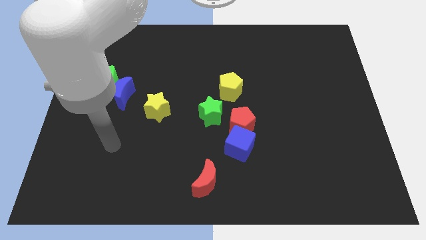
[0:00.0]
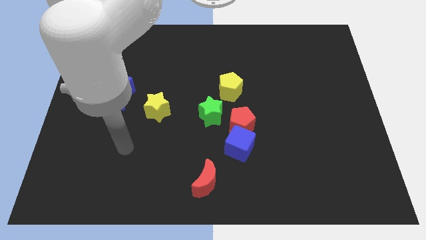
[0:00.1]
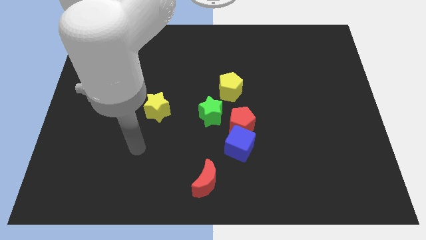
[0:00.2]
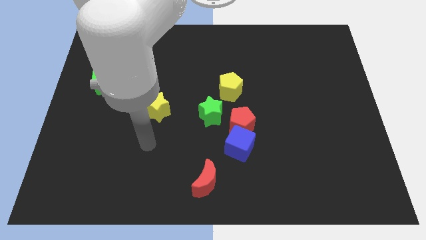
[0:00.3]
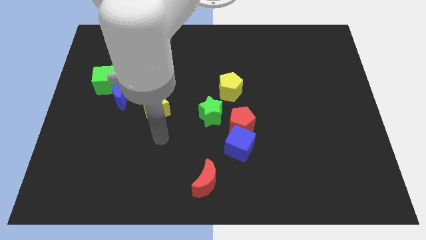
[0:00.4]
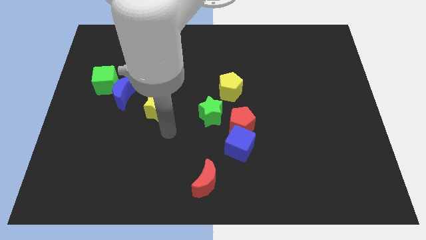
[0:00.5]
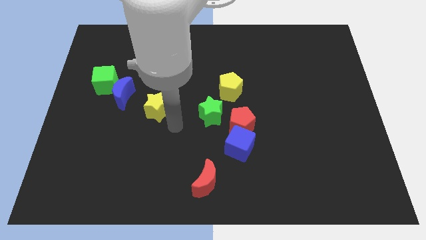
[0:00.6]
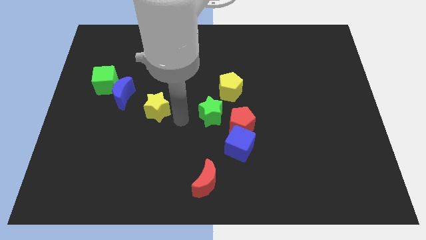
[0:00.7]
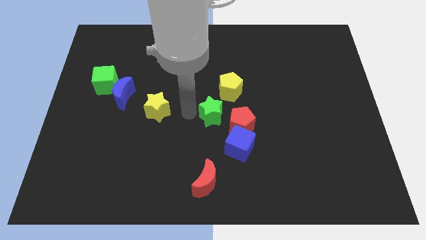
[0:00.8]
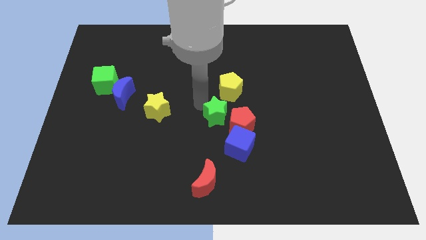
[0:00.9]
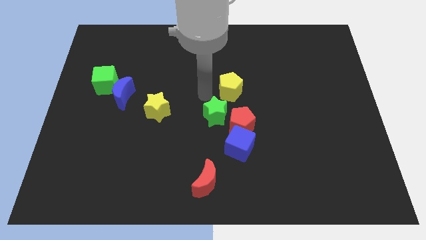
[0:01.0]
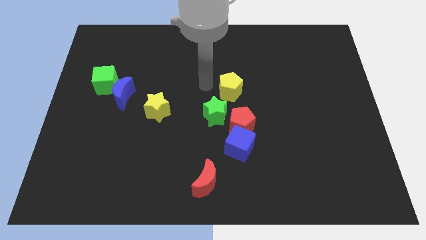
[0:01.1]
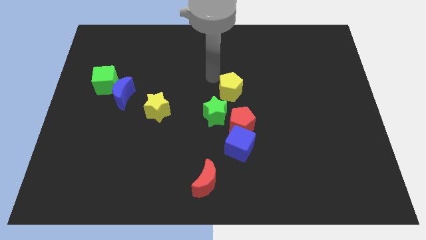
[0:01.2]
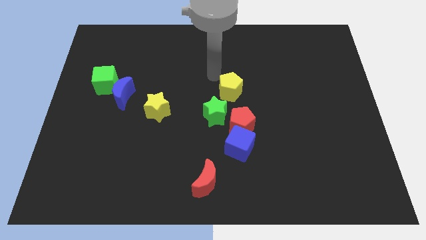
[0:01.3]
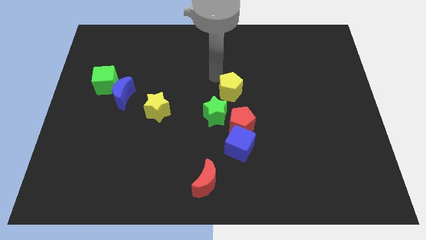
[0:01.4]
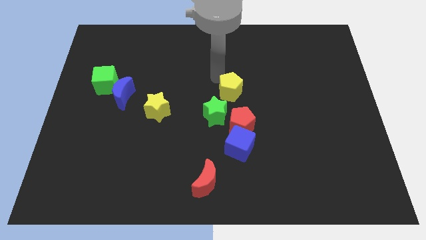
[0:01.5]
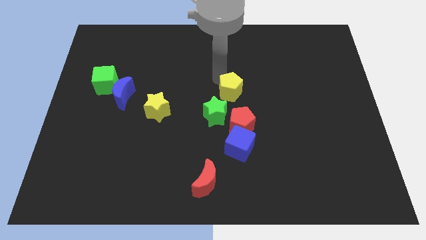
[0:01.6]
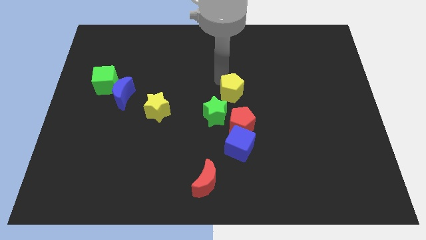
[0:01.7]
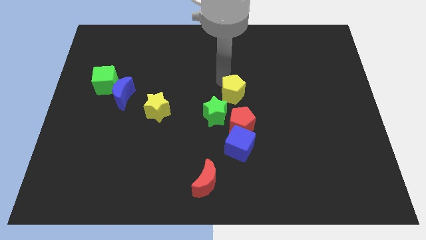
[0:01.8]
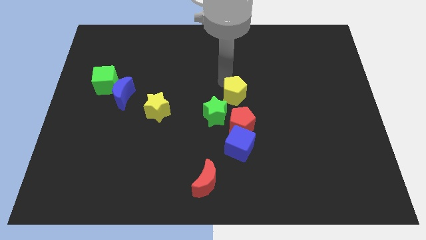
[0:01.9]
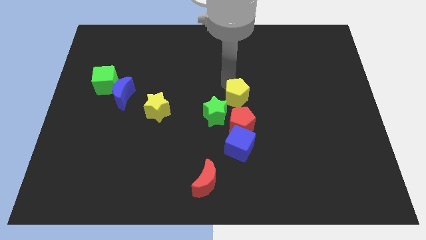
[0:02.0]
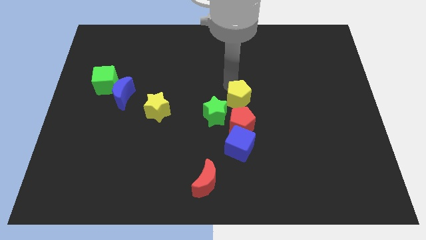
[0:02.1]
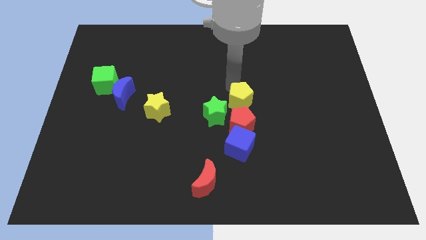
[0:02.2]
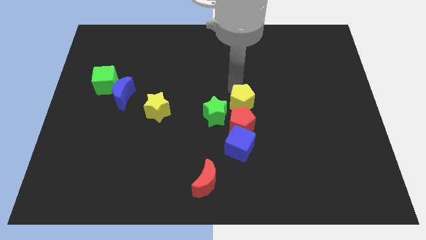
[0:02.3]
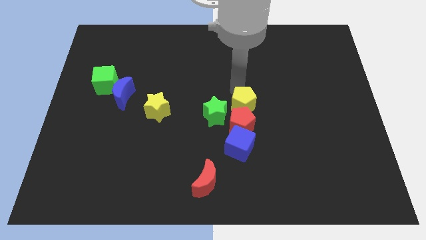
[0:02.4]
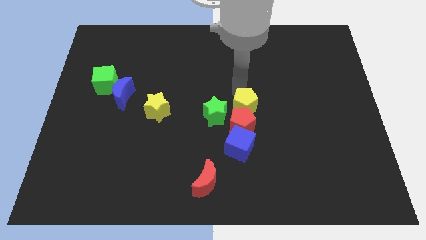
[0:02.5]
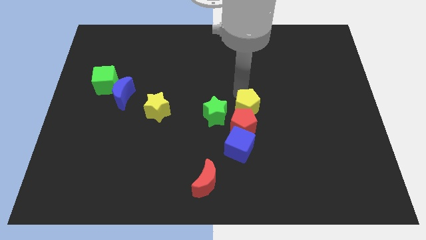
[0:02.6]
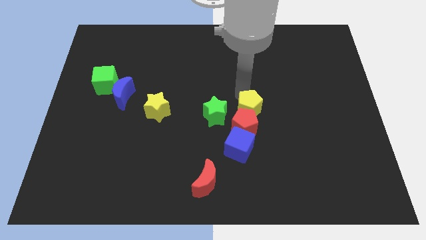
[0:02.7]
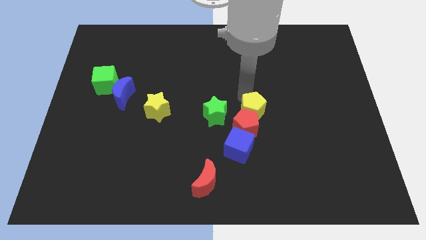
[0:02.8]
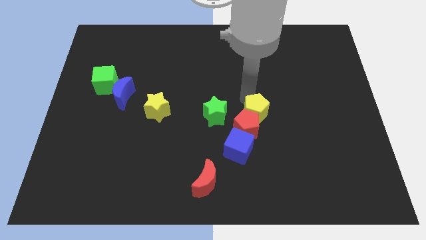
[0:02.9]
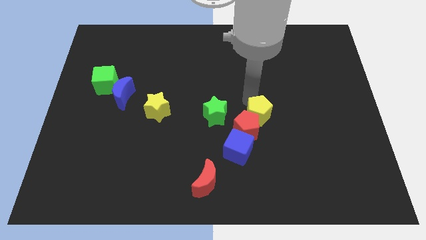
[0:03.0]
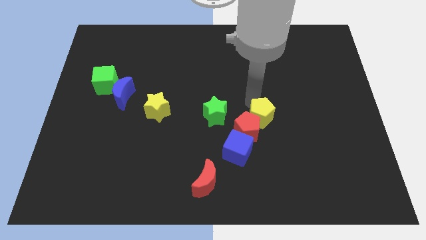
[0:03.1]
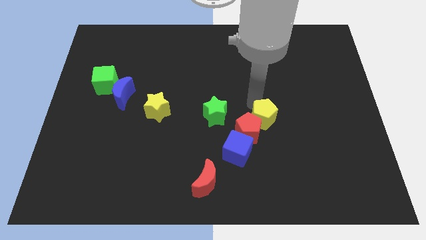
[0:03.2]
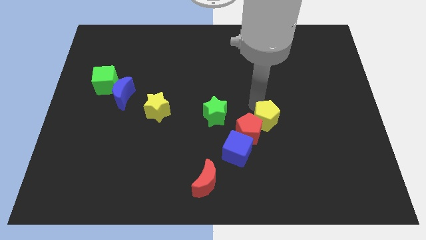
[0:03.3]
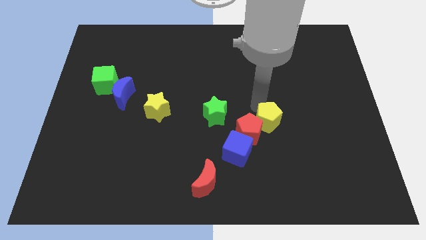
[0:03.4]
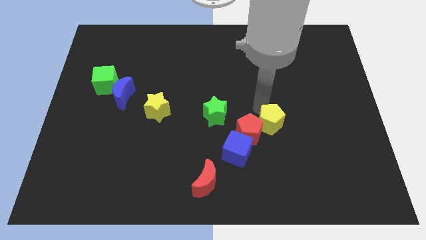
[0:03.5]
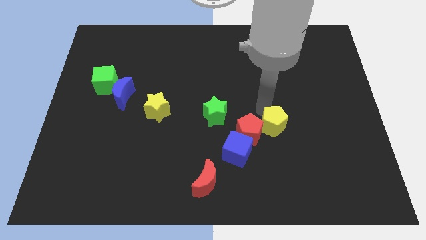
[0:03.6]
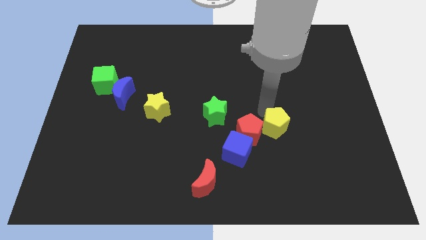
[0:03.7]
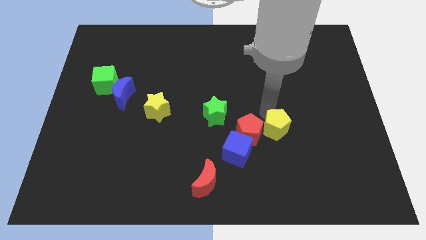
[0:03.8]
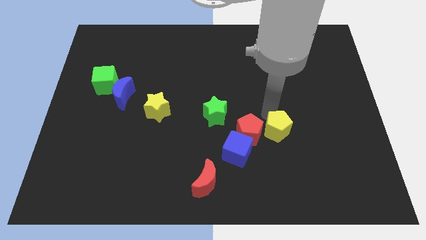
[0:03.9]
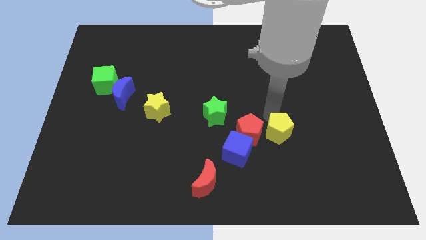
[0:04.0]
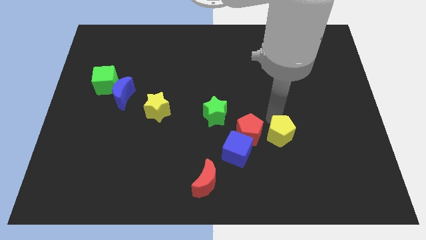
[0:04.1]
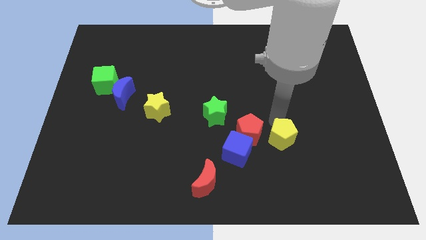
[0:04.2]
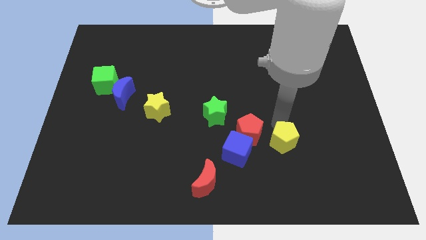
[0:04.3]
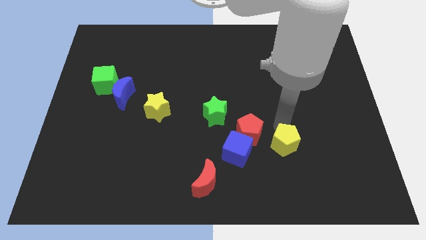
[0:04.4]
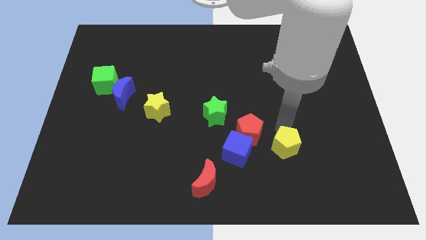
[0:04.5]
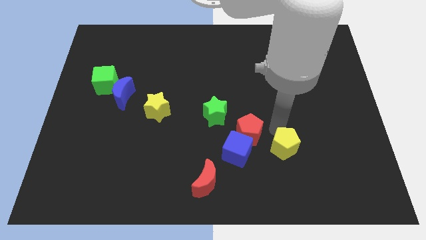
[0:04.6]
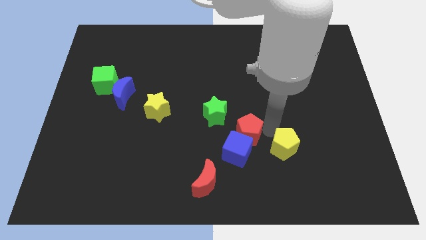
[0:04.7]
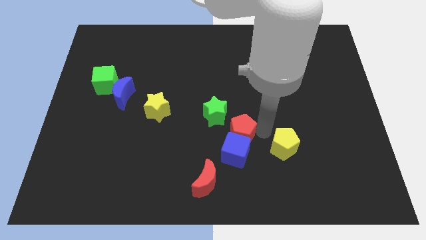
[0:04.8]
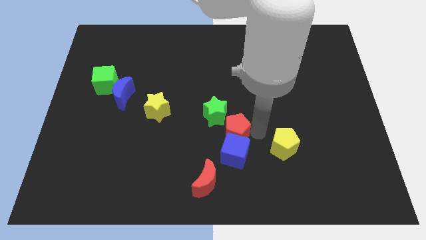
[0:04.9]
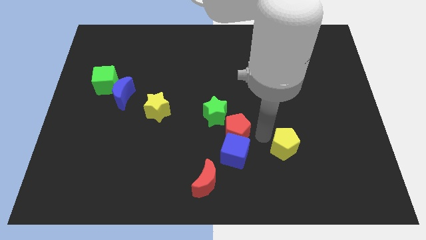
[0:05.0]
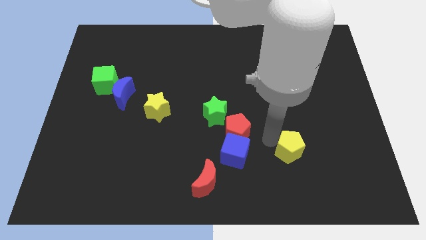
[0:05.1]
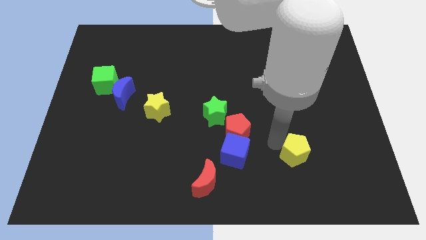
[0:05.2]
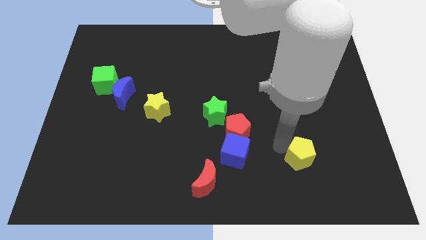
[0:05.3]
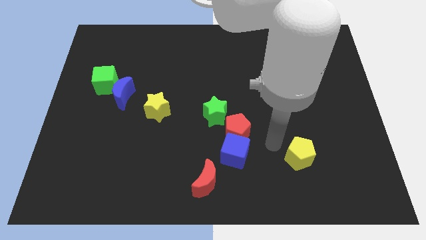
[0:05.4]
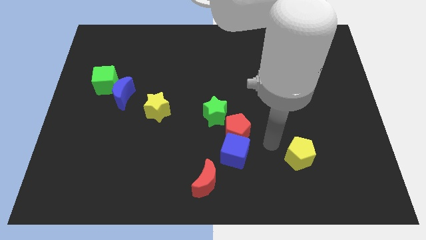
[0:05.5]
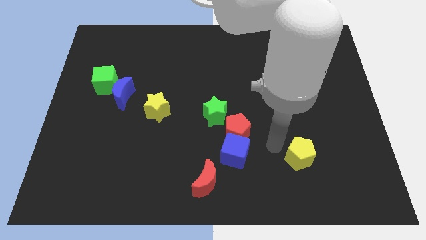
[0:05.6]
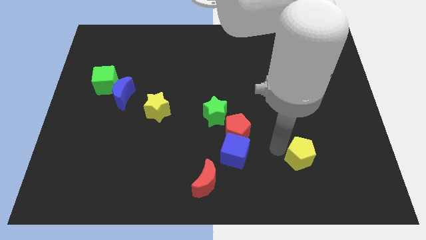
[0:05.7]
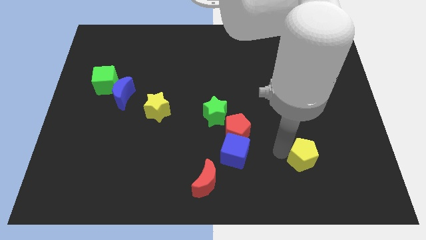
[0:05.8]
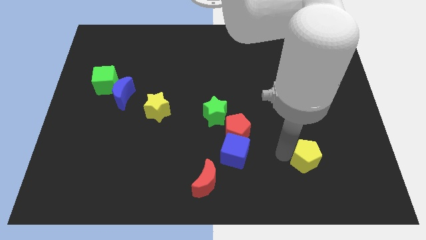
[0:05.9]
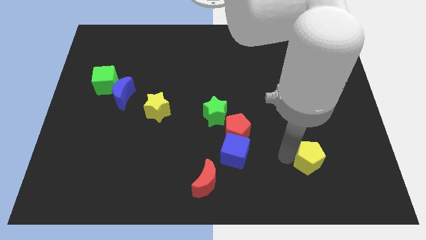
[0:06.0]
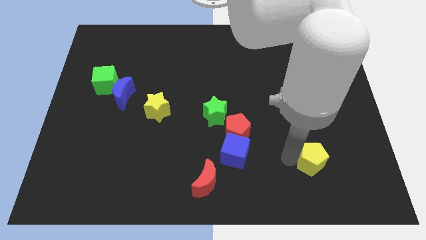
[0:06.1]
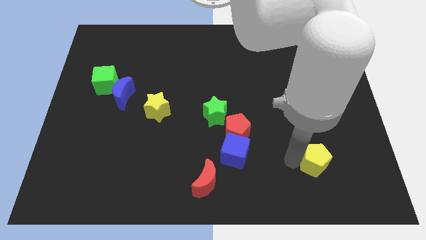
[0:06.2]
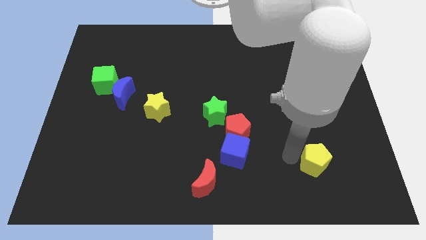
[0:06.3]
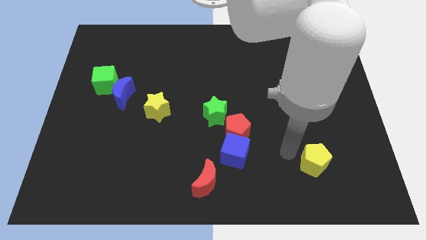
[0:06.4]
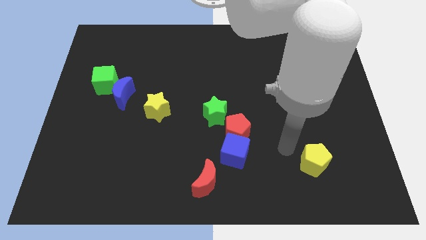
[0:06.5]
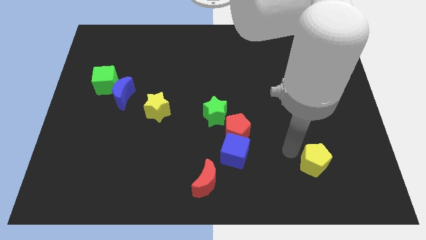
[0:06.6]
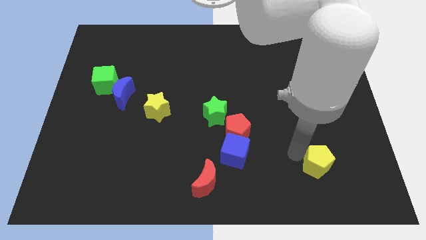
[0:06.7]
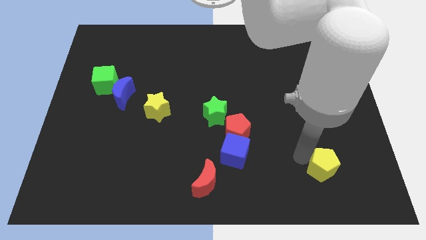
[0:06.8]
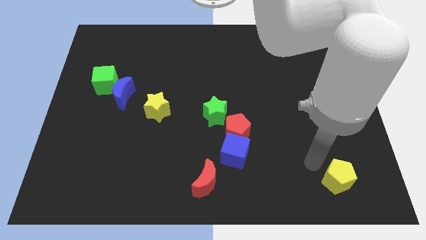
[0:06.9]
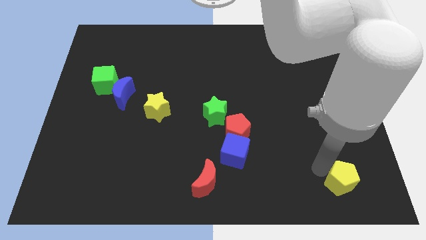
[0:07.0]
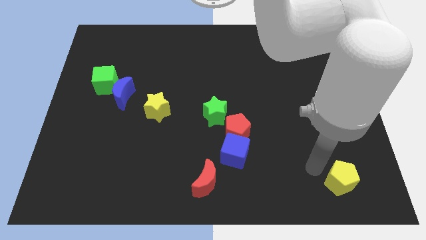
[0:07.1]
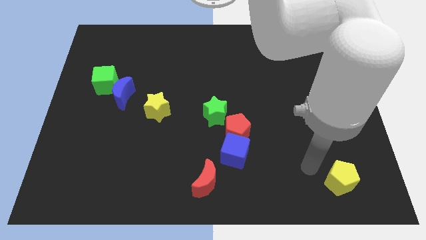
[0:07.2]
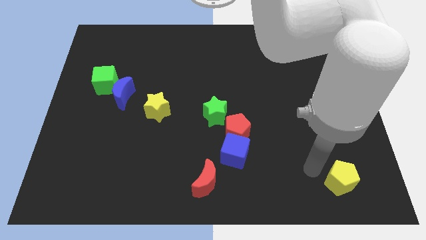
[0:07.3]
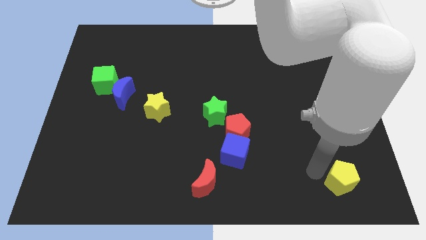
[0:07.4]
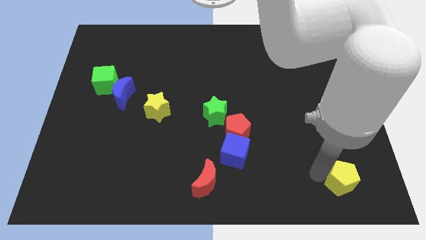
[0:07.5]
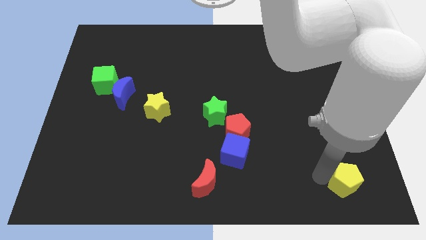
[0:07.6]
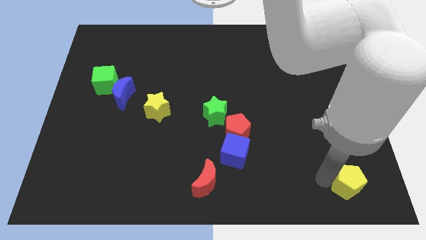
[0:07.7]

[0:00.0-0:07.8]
put the yellow pentagon to the bottom right of the board
